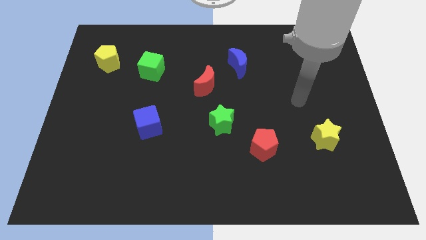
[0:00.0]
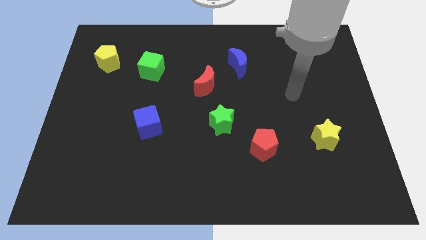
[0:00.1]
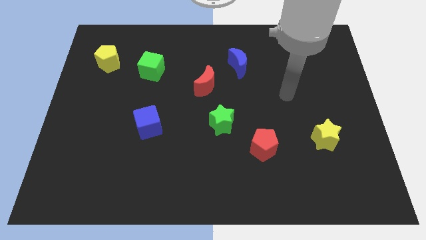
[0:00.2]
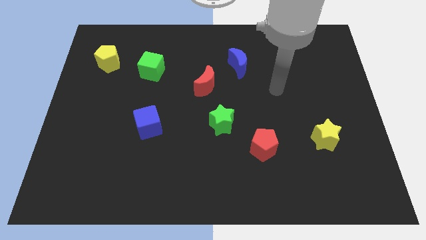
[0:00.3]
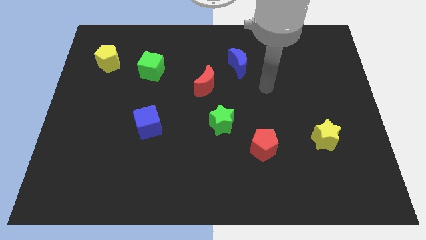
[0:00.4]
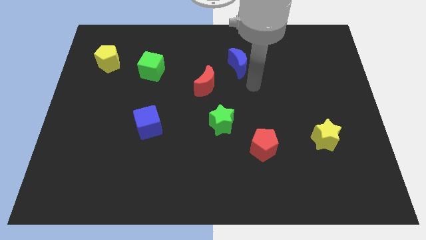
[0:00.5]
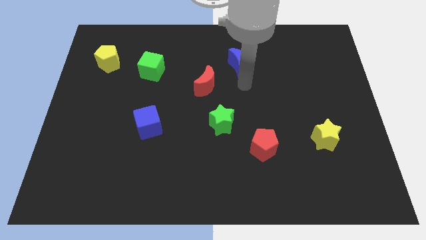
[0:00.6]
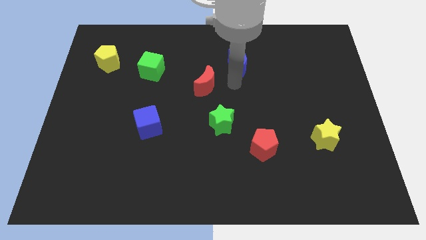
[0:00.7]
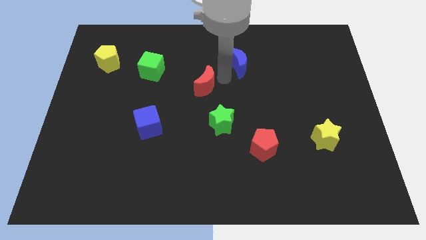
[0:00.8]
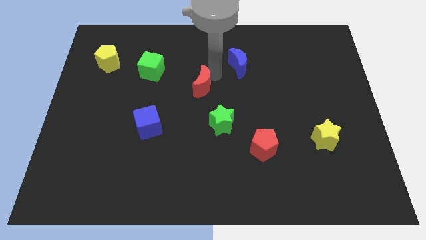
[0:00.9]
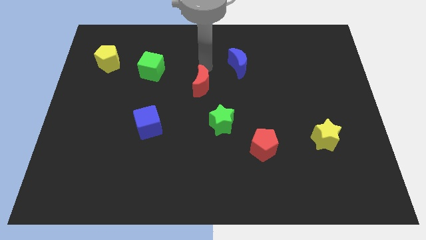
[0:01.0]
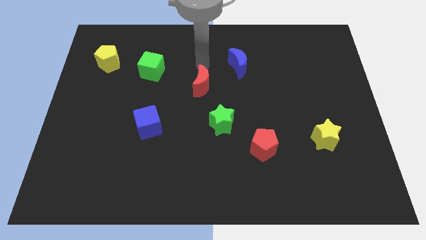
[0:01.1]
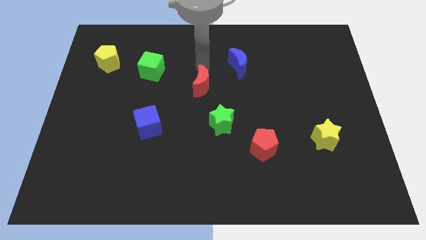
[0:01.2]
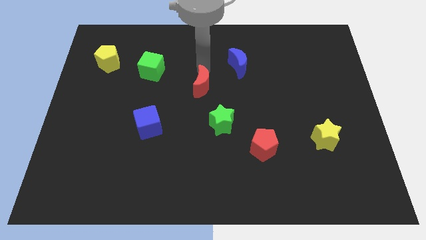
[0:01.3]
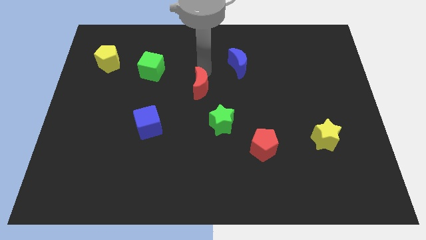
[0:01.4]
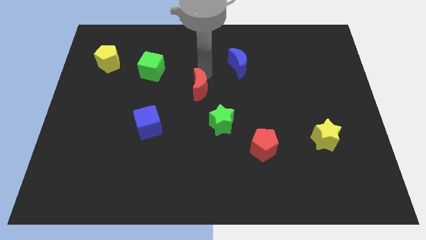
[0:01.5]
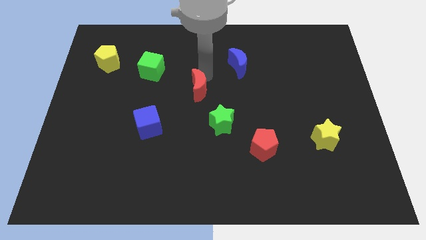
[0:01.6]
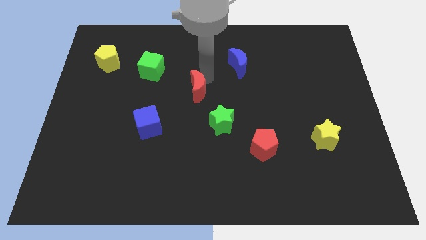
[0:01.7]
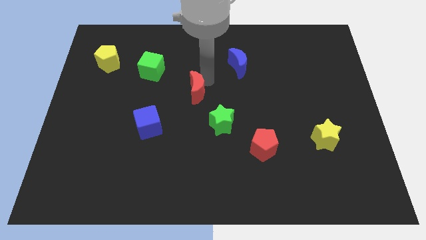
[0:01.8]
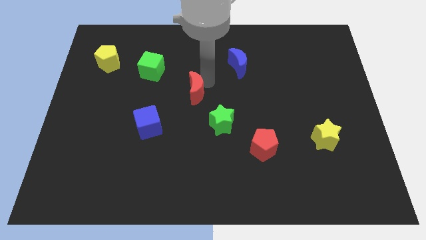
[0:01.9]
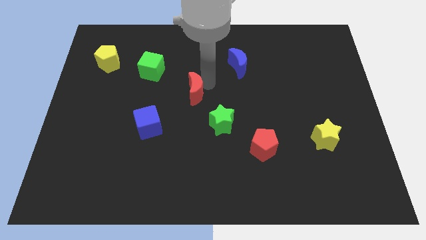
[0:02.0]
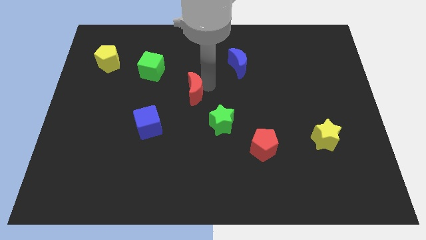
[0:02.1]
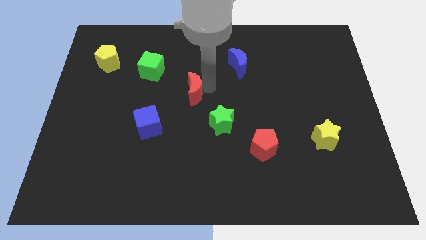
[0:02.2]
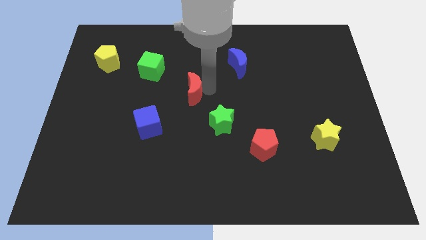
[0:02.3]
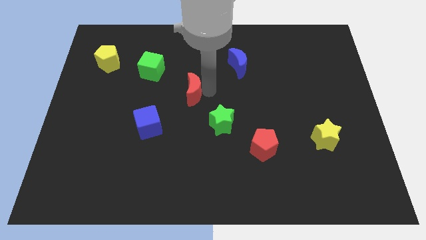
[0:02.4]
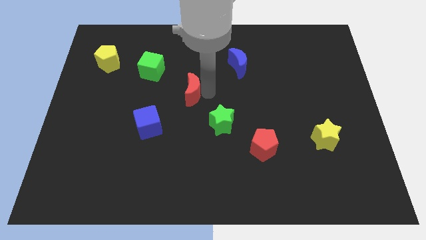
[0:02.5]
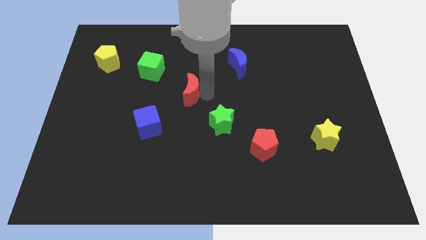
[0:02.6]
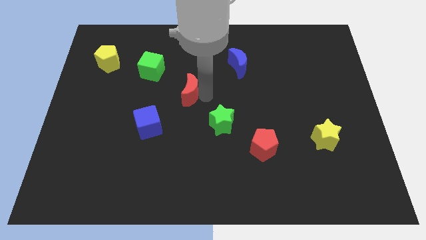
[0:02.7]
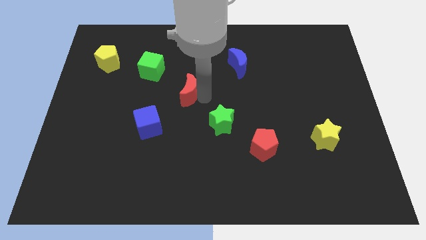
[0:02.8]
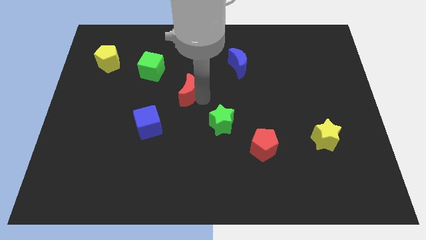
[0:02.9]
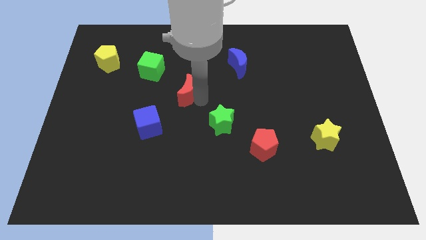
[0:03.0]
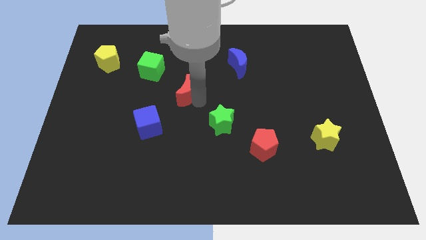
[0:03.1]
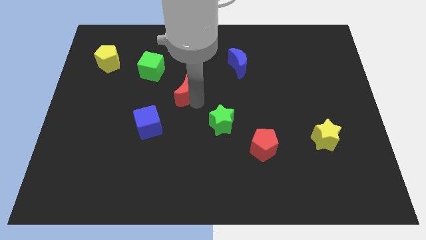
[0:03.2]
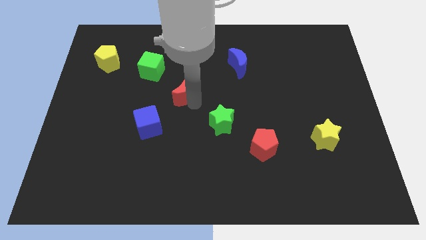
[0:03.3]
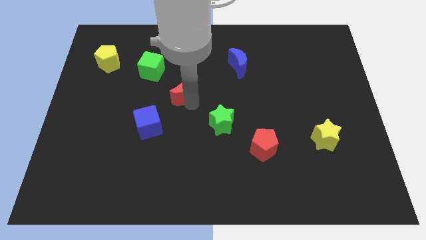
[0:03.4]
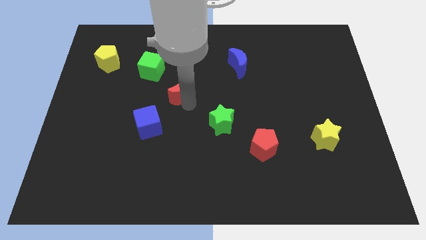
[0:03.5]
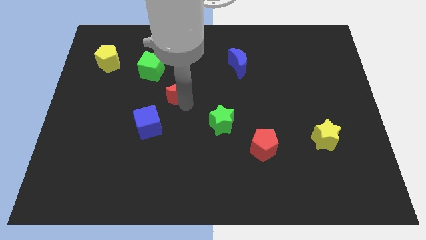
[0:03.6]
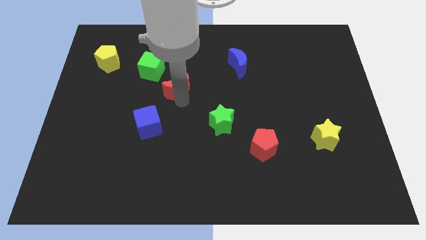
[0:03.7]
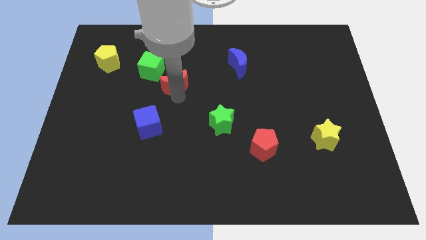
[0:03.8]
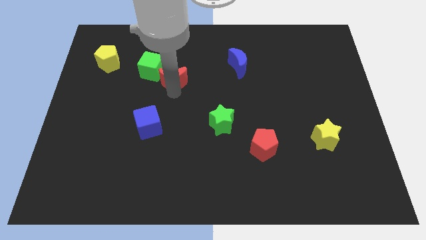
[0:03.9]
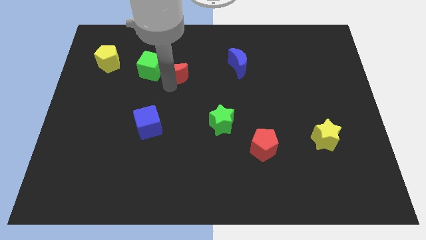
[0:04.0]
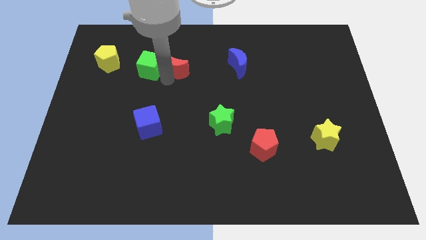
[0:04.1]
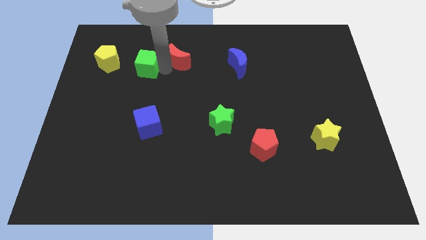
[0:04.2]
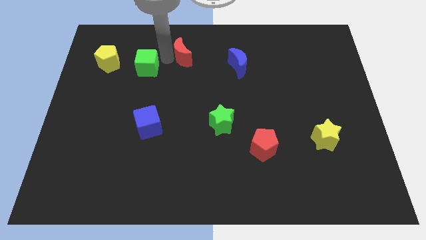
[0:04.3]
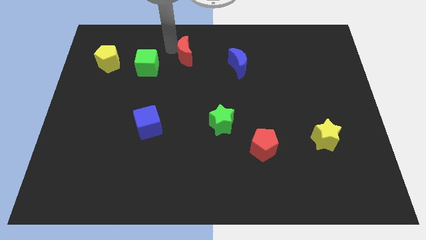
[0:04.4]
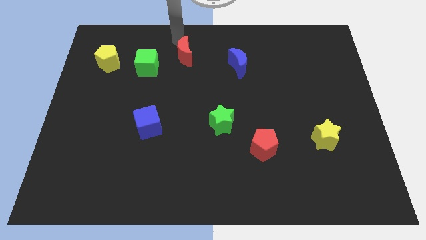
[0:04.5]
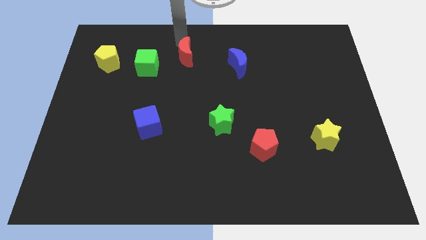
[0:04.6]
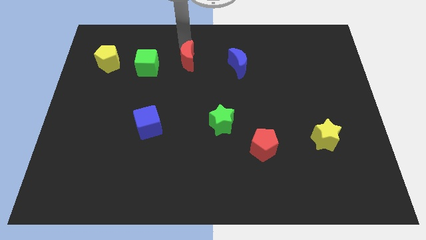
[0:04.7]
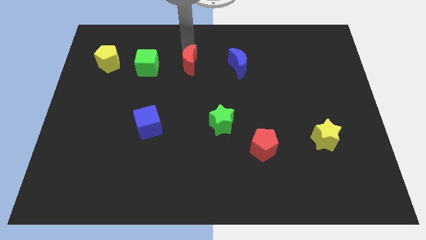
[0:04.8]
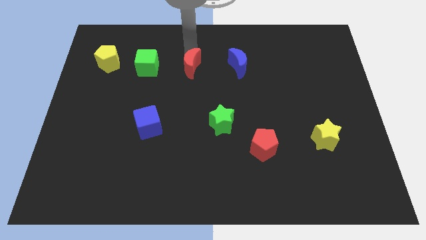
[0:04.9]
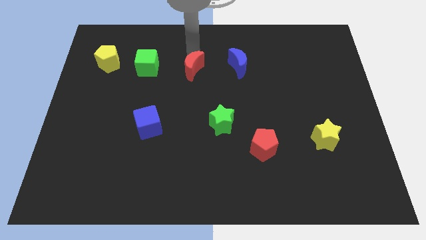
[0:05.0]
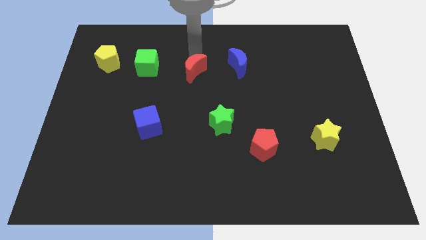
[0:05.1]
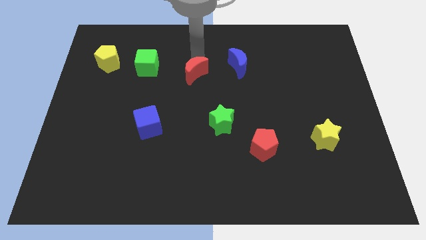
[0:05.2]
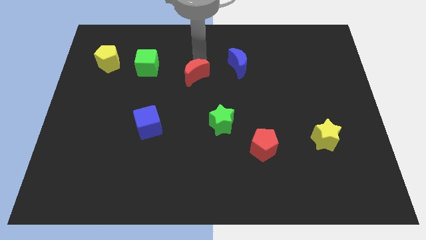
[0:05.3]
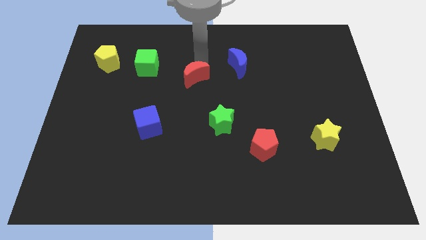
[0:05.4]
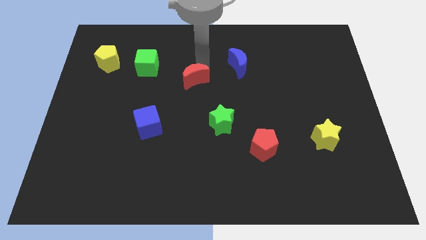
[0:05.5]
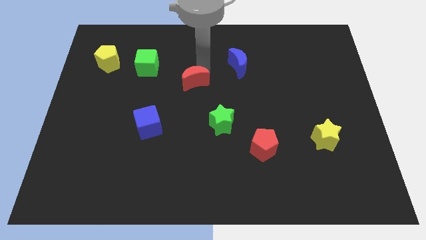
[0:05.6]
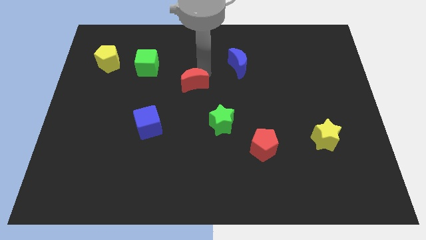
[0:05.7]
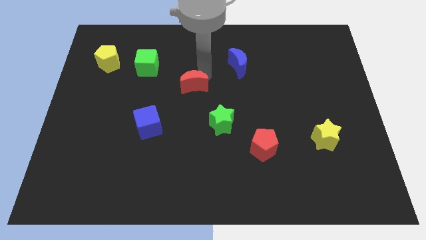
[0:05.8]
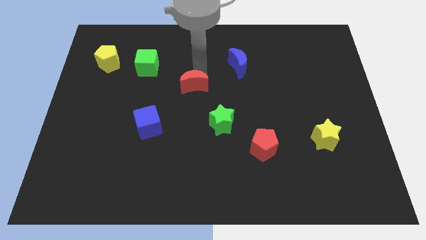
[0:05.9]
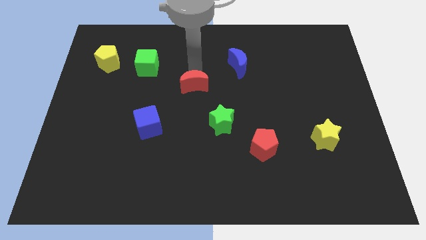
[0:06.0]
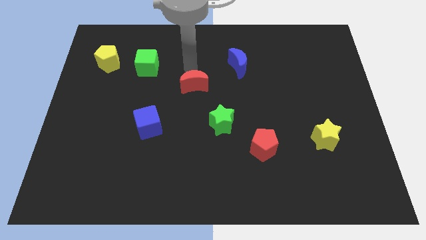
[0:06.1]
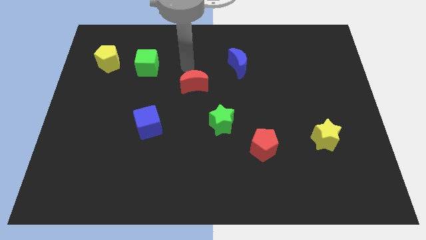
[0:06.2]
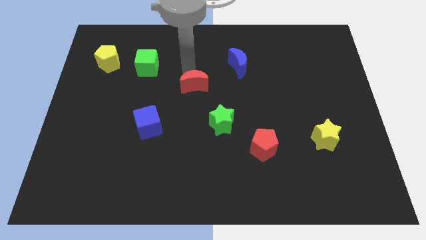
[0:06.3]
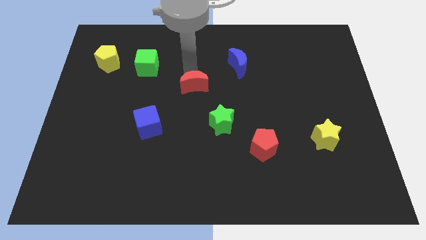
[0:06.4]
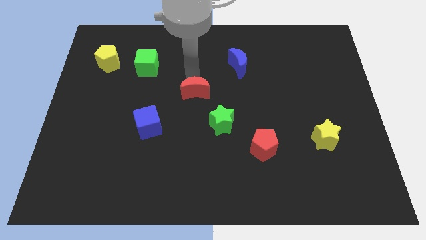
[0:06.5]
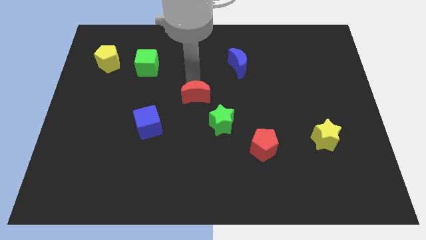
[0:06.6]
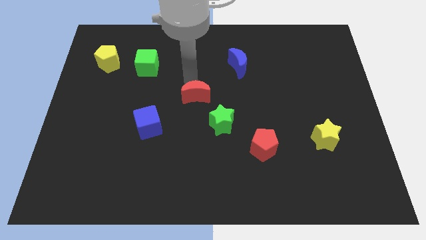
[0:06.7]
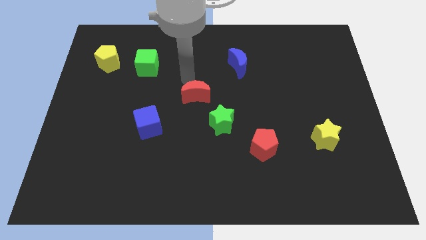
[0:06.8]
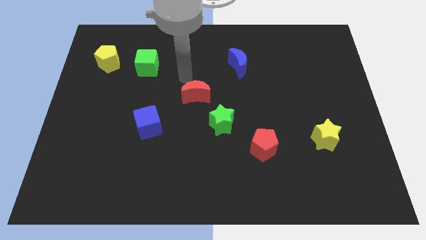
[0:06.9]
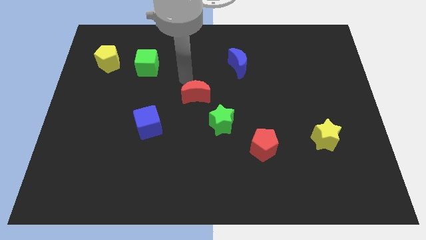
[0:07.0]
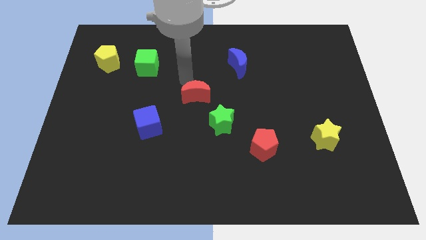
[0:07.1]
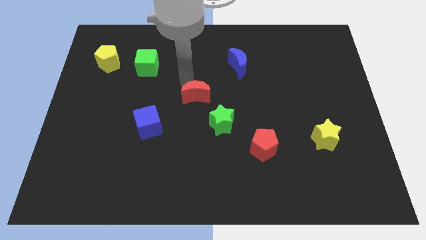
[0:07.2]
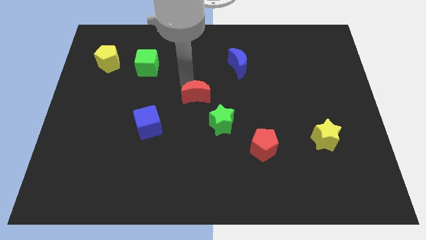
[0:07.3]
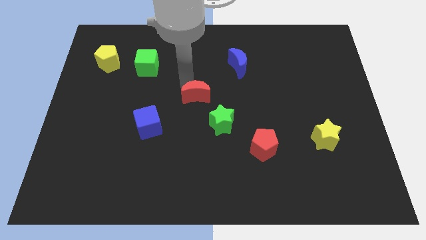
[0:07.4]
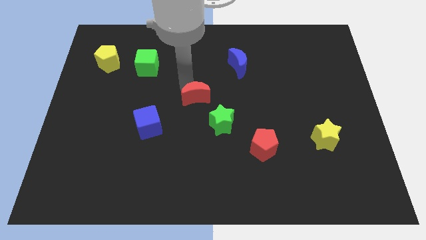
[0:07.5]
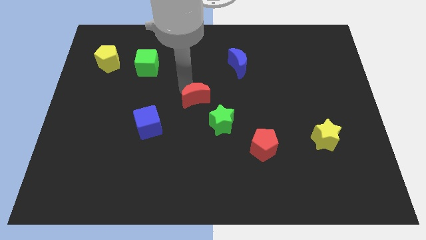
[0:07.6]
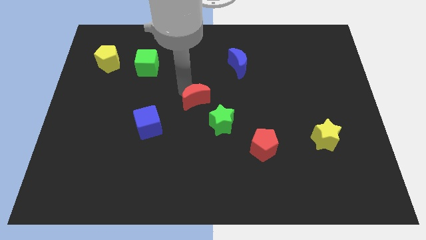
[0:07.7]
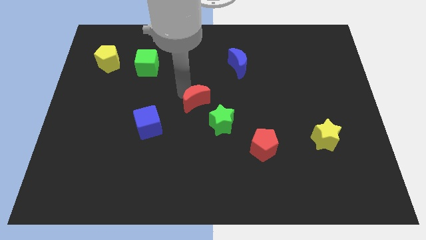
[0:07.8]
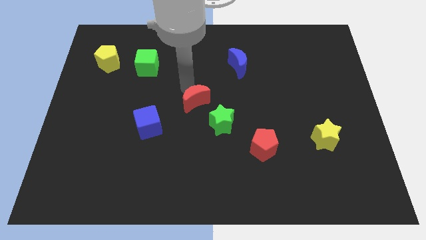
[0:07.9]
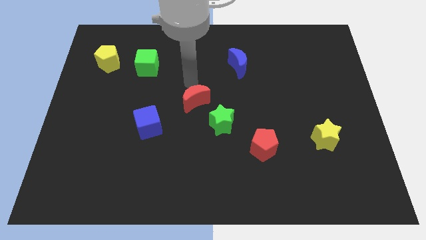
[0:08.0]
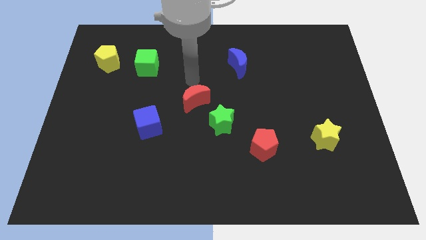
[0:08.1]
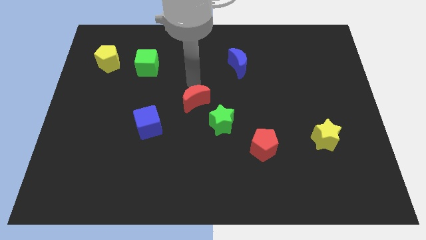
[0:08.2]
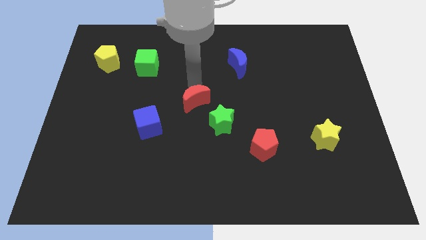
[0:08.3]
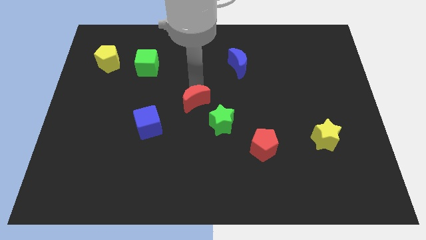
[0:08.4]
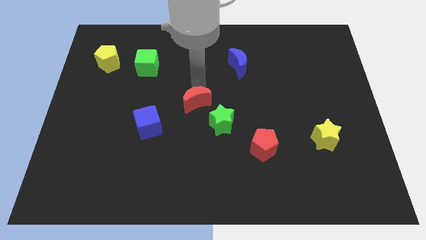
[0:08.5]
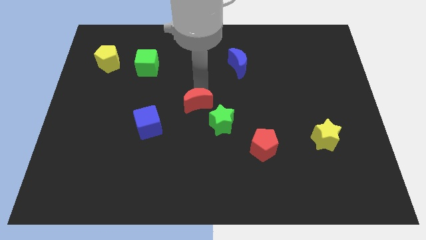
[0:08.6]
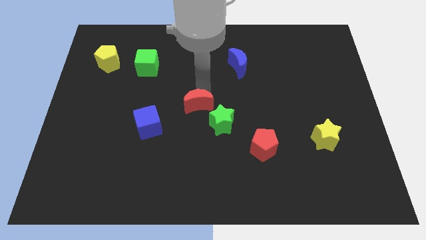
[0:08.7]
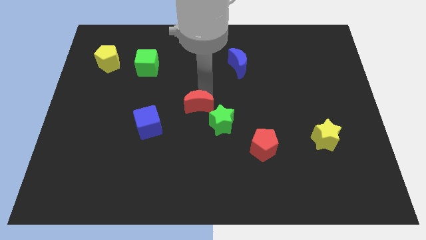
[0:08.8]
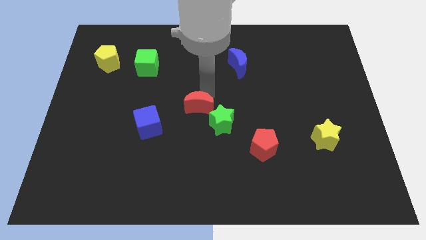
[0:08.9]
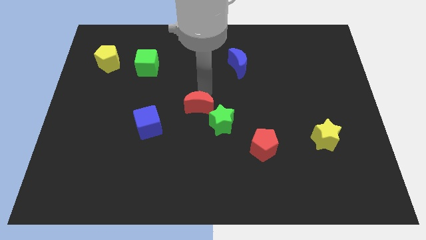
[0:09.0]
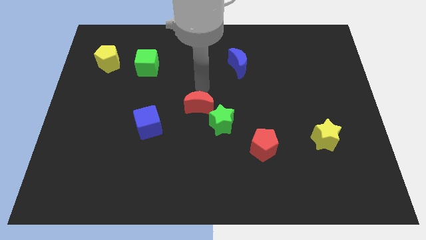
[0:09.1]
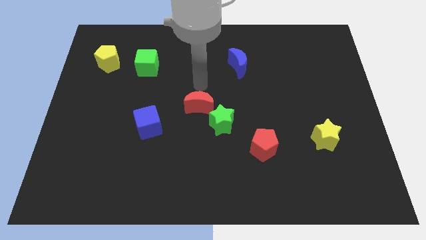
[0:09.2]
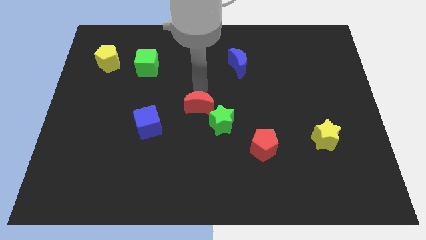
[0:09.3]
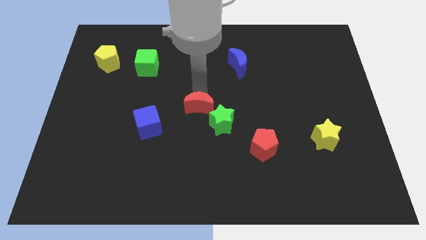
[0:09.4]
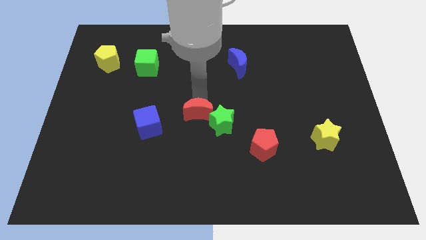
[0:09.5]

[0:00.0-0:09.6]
push the red moon slightly down
